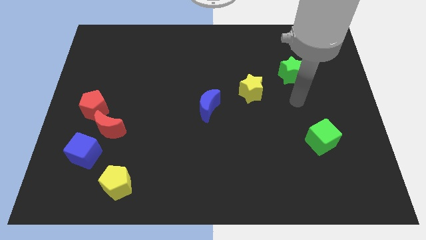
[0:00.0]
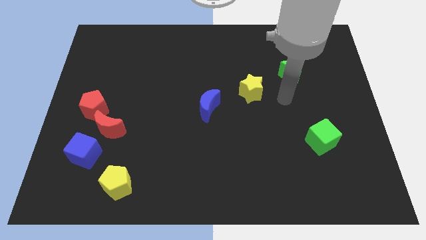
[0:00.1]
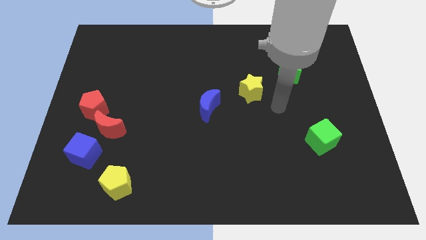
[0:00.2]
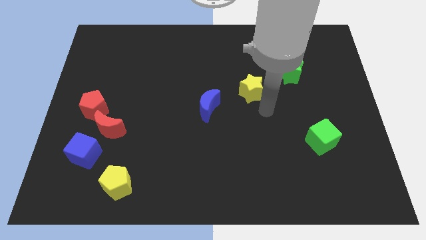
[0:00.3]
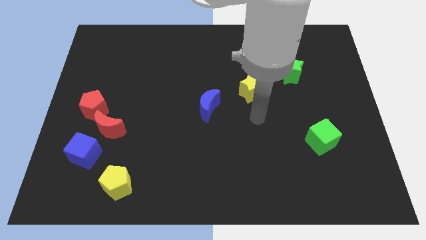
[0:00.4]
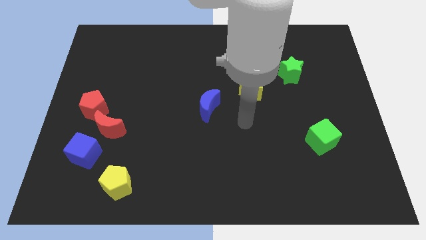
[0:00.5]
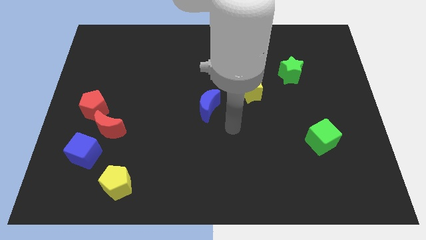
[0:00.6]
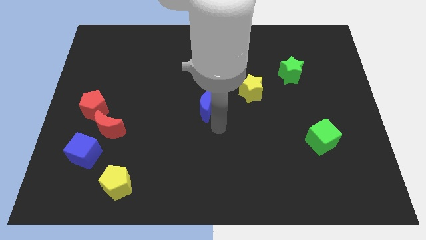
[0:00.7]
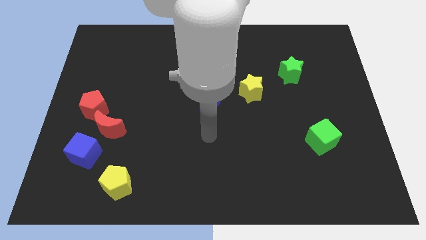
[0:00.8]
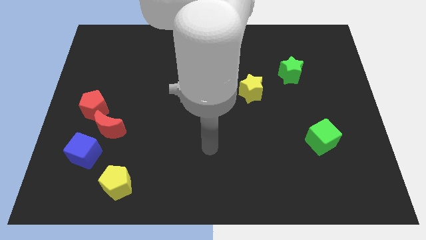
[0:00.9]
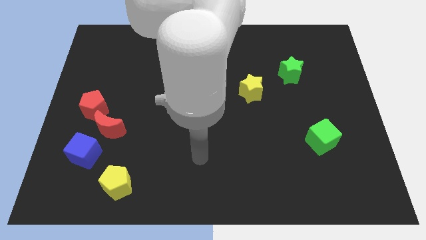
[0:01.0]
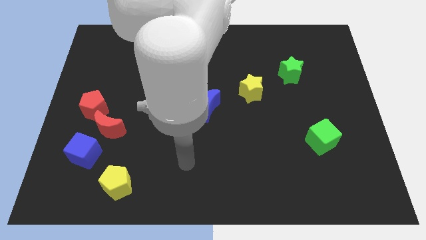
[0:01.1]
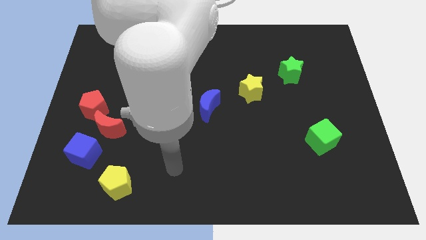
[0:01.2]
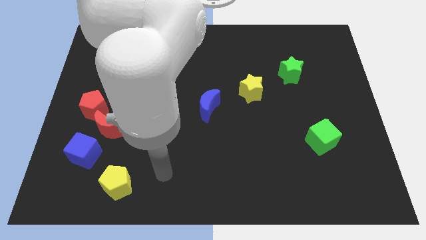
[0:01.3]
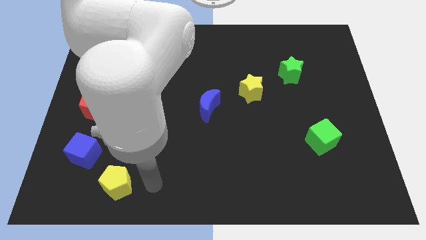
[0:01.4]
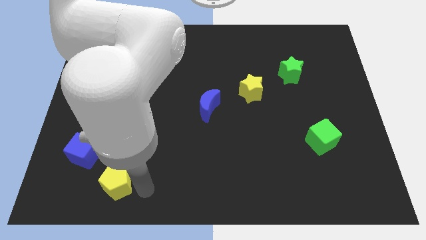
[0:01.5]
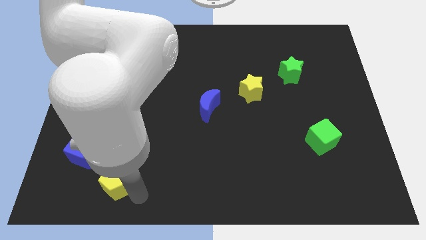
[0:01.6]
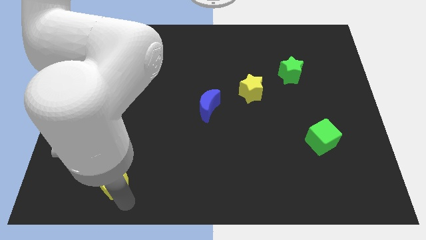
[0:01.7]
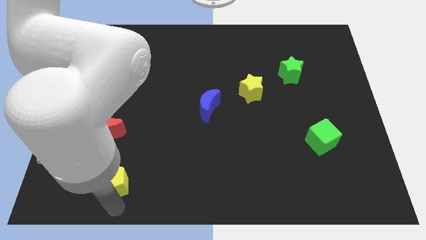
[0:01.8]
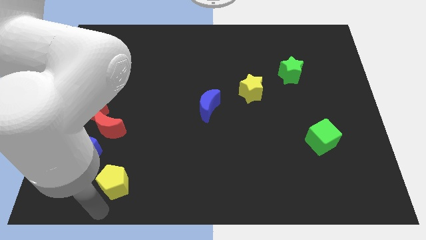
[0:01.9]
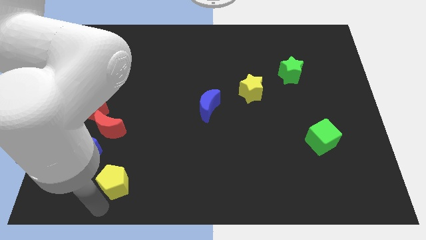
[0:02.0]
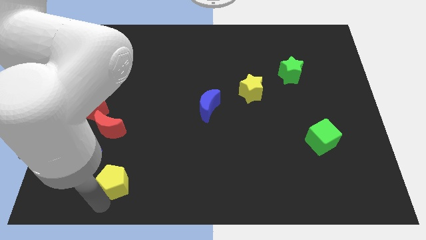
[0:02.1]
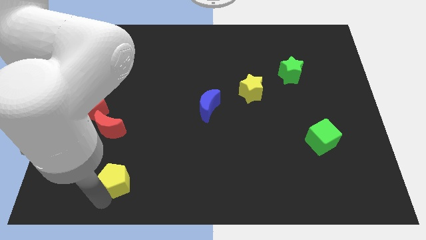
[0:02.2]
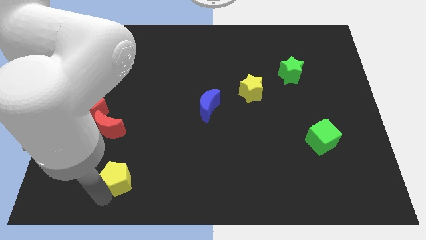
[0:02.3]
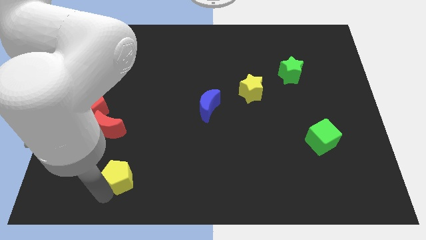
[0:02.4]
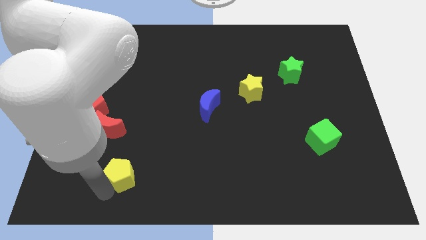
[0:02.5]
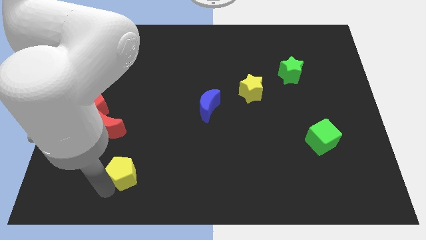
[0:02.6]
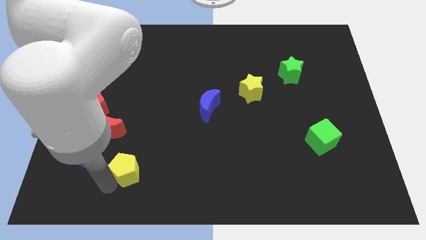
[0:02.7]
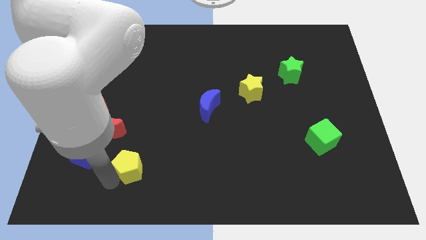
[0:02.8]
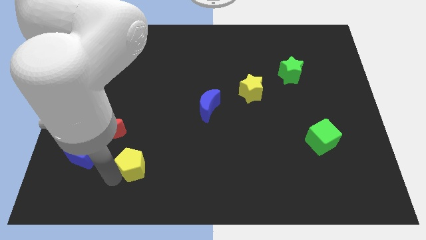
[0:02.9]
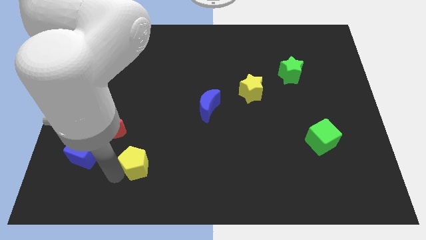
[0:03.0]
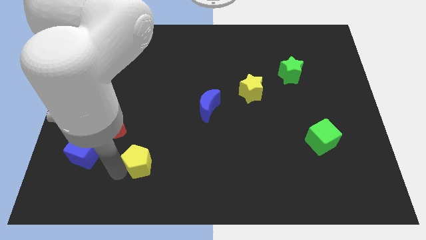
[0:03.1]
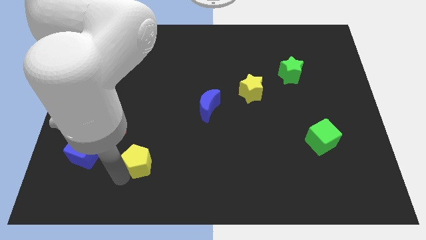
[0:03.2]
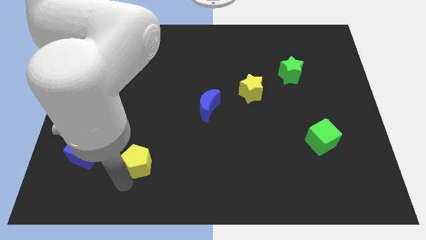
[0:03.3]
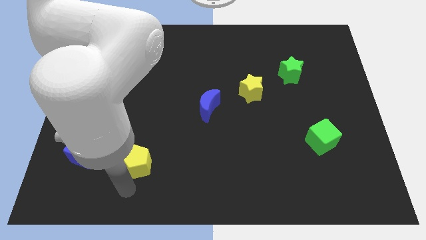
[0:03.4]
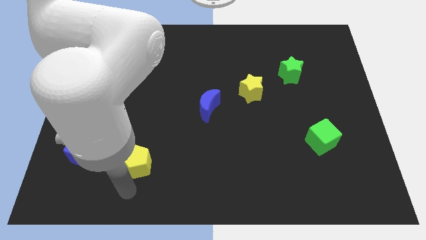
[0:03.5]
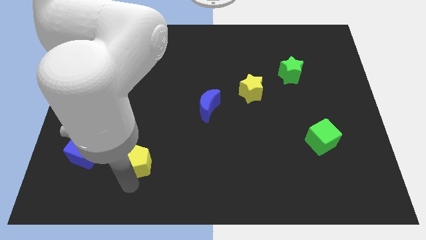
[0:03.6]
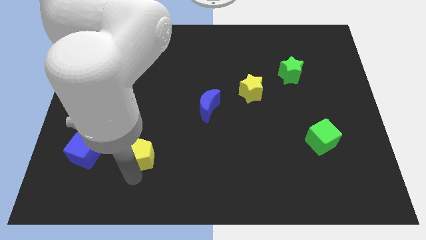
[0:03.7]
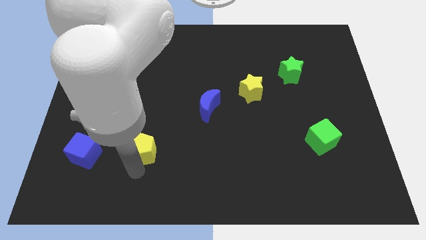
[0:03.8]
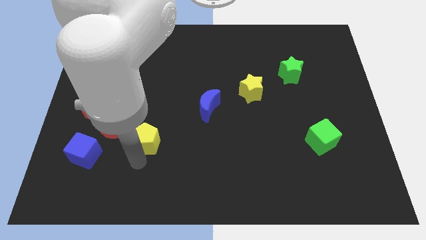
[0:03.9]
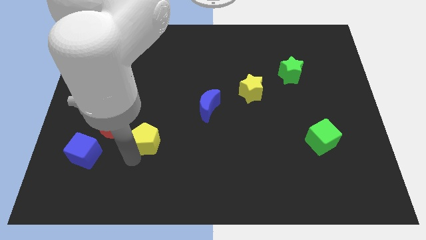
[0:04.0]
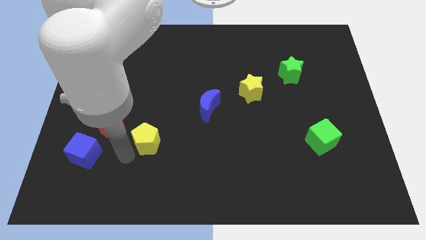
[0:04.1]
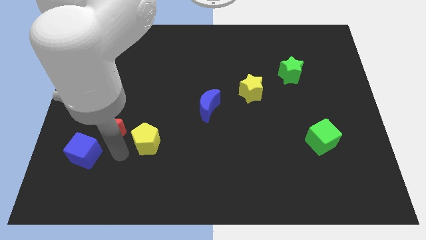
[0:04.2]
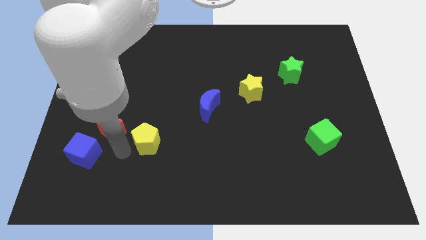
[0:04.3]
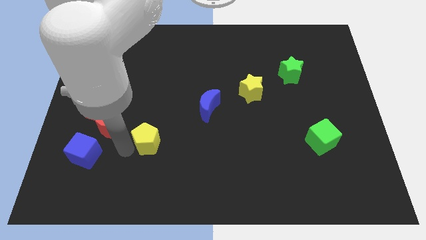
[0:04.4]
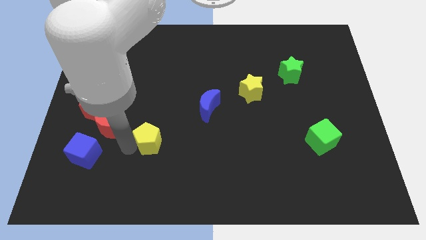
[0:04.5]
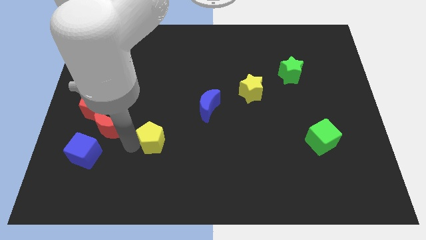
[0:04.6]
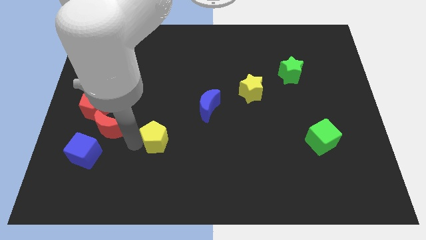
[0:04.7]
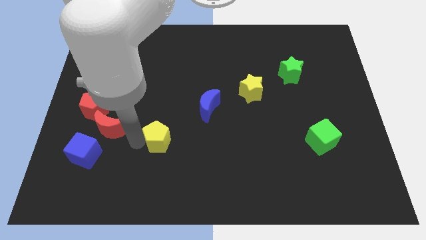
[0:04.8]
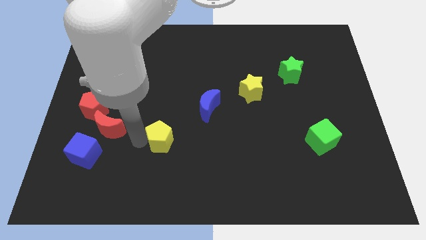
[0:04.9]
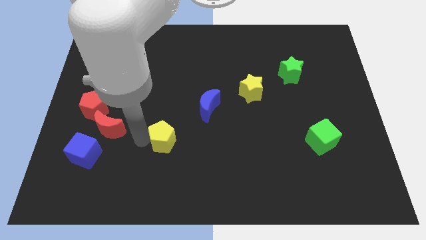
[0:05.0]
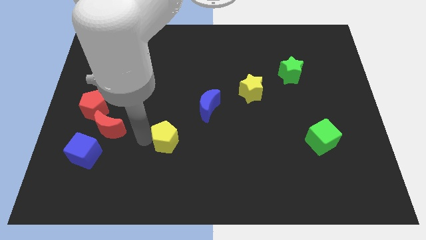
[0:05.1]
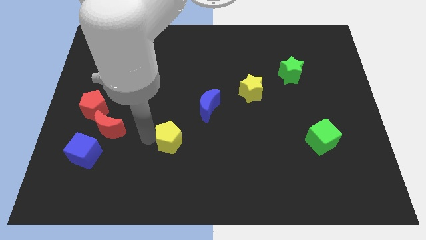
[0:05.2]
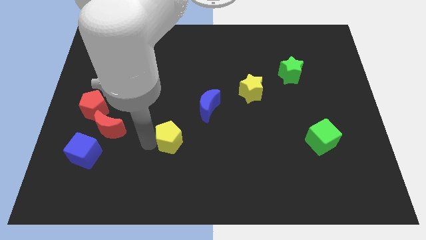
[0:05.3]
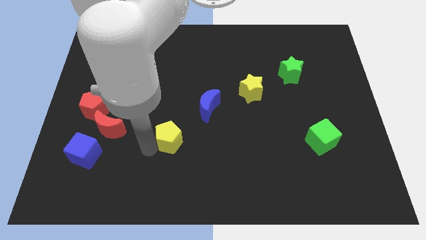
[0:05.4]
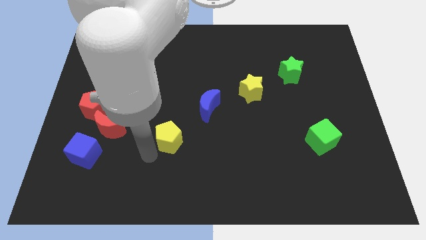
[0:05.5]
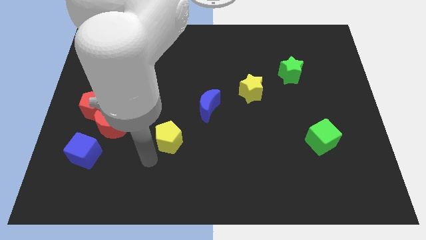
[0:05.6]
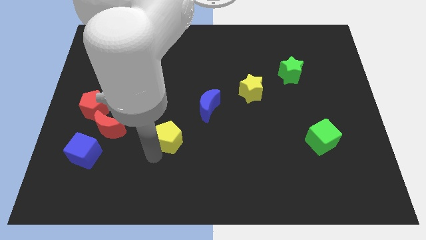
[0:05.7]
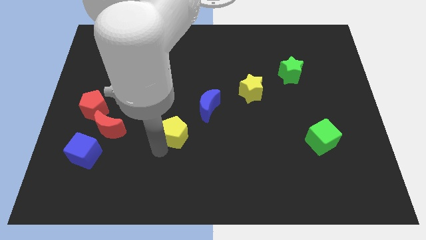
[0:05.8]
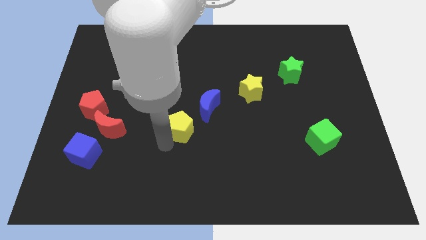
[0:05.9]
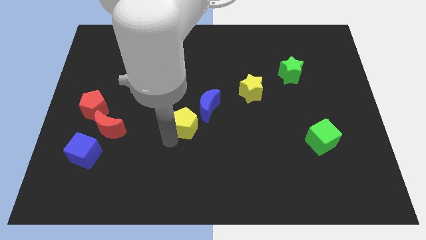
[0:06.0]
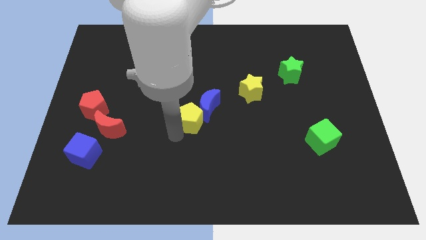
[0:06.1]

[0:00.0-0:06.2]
put the yellow pentagon close to the blue moon

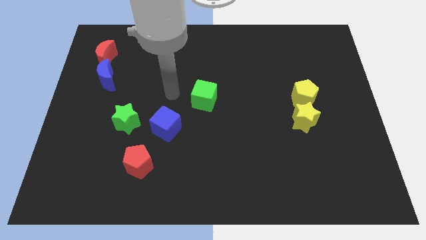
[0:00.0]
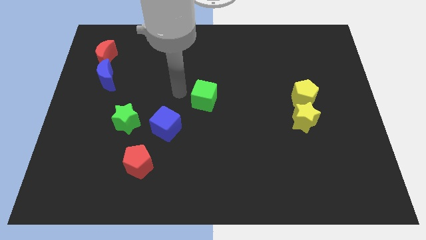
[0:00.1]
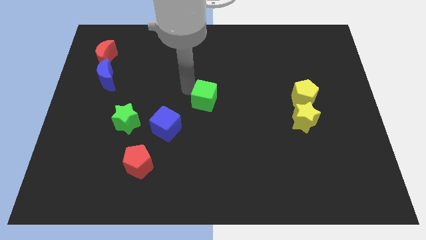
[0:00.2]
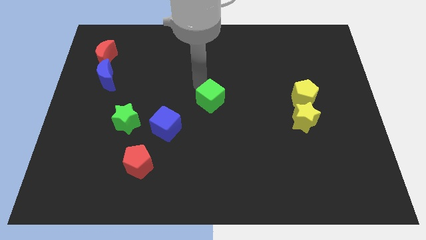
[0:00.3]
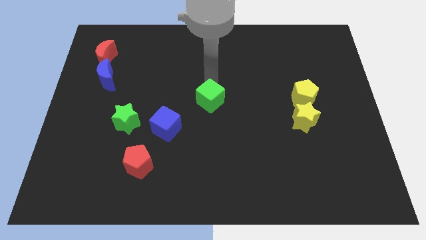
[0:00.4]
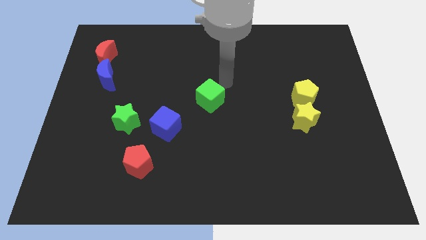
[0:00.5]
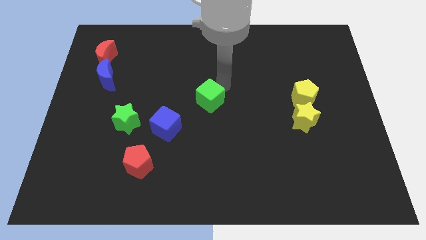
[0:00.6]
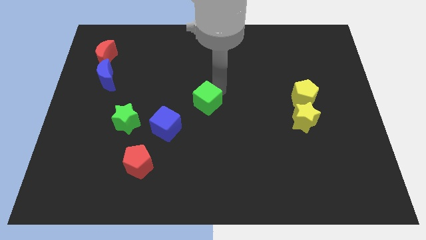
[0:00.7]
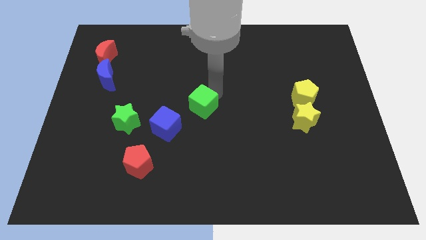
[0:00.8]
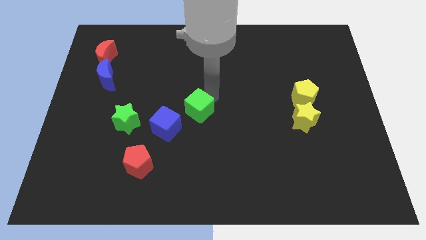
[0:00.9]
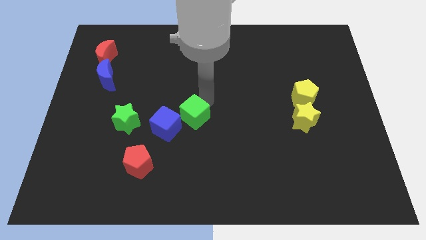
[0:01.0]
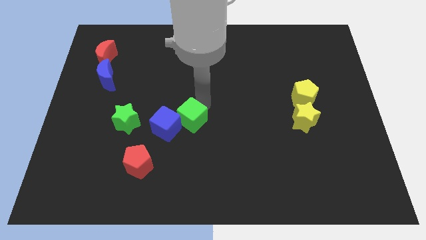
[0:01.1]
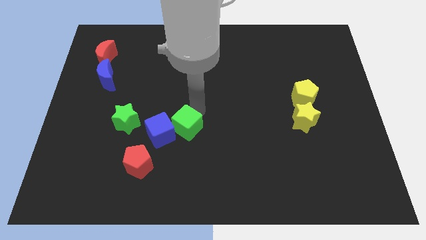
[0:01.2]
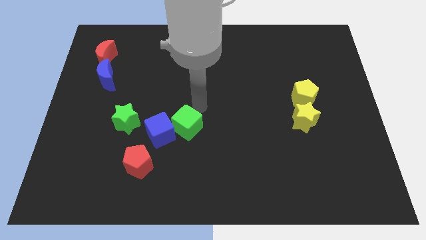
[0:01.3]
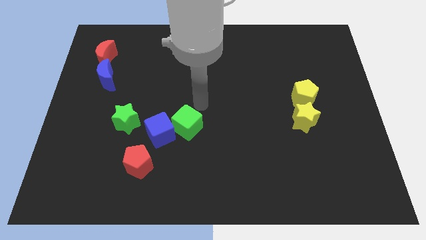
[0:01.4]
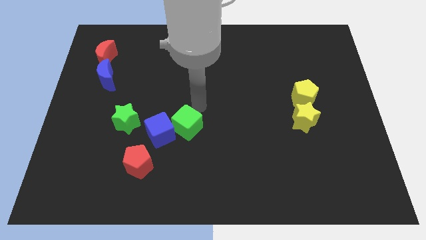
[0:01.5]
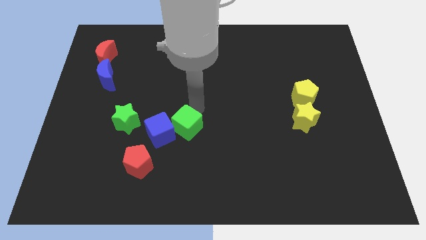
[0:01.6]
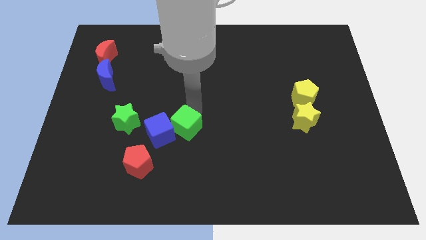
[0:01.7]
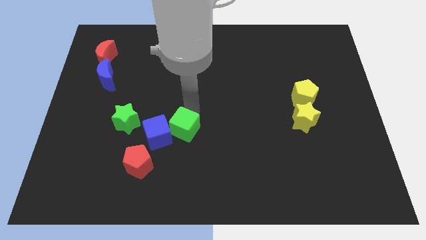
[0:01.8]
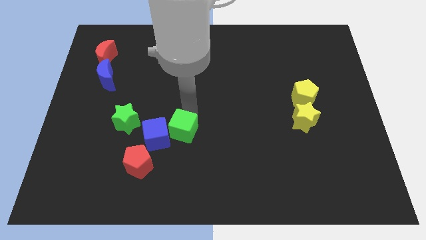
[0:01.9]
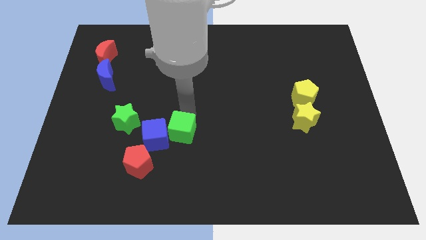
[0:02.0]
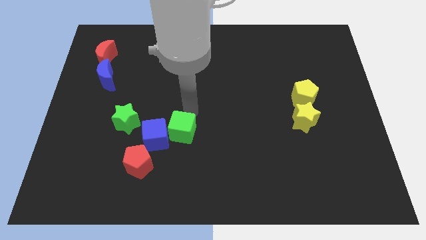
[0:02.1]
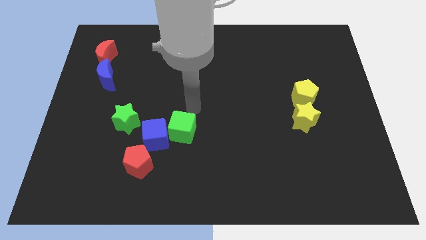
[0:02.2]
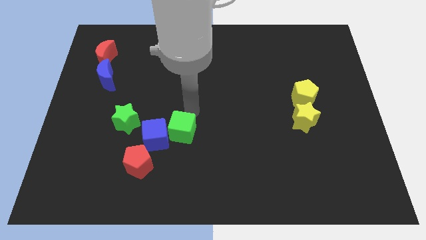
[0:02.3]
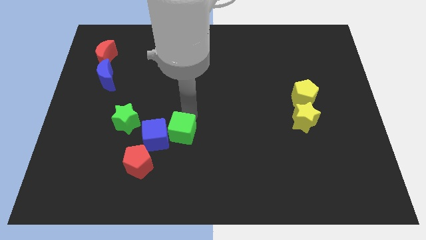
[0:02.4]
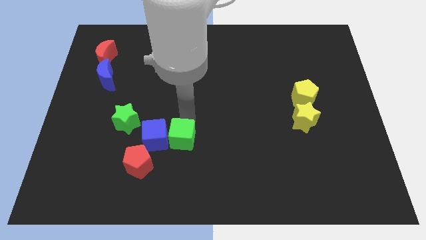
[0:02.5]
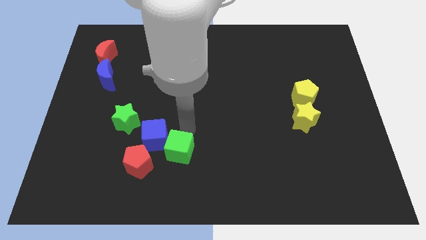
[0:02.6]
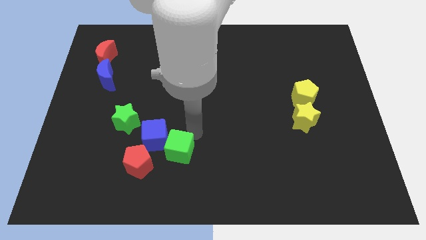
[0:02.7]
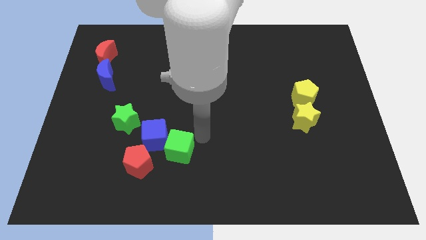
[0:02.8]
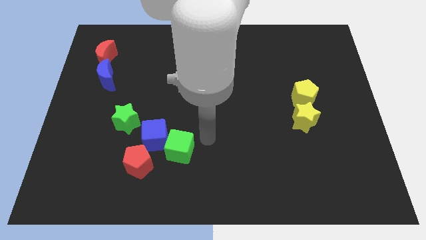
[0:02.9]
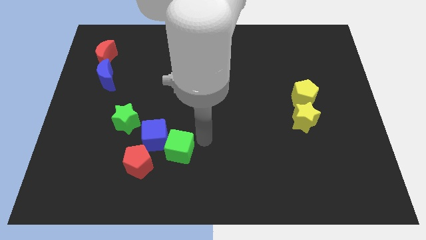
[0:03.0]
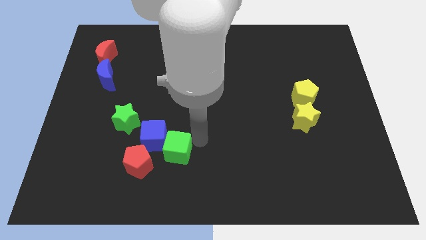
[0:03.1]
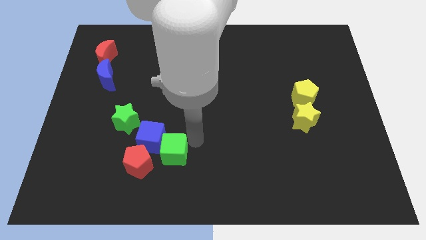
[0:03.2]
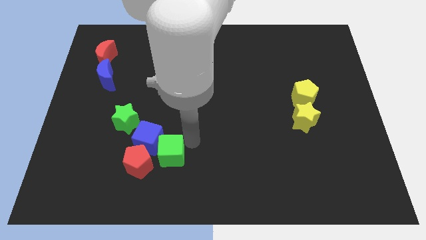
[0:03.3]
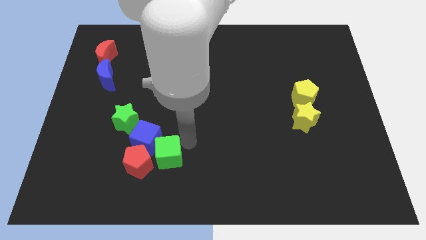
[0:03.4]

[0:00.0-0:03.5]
put the green cube towards the red pentagon
